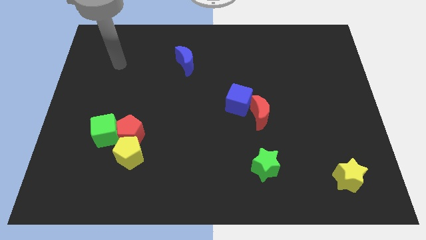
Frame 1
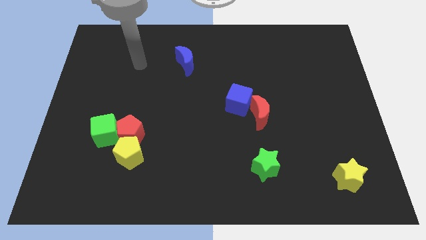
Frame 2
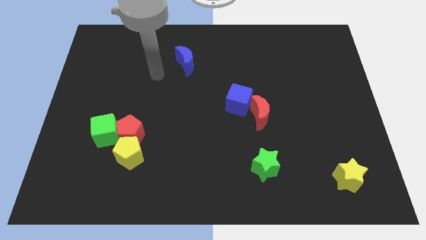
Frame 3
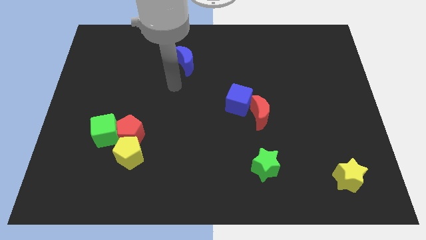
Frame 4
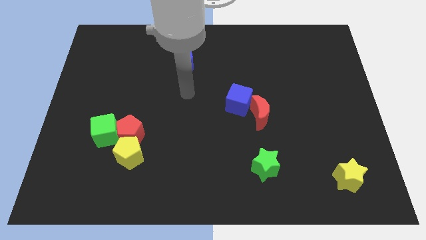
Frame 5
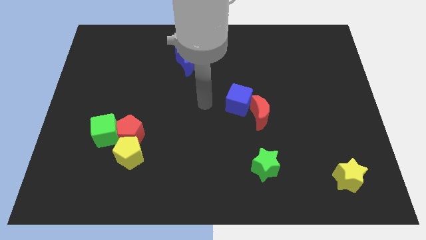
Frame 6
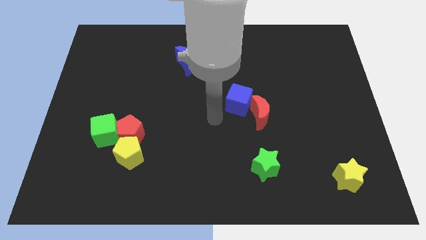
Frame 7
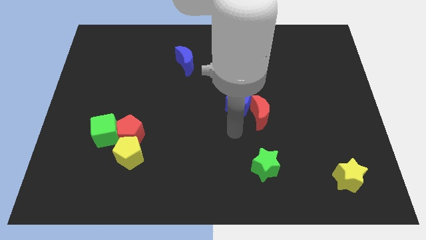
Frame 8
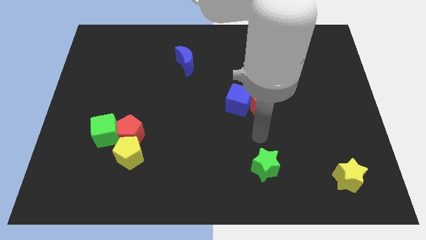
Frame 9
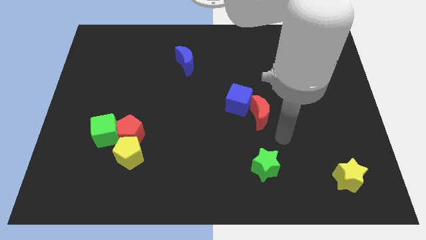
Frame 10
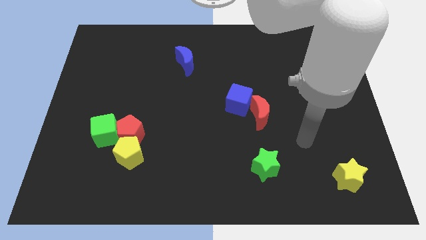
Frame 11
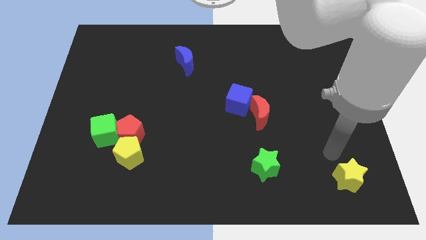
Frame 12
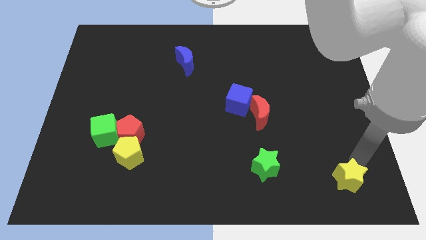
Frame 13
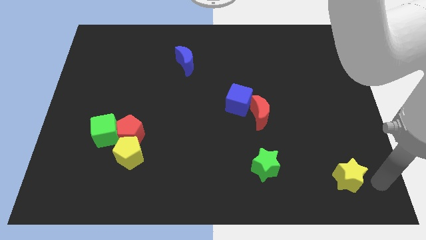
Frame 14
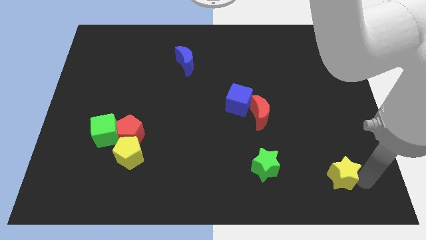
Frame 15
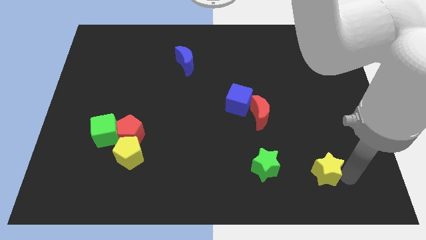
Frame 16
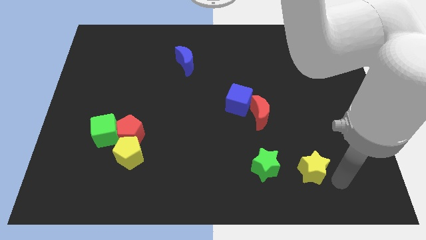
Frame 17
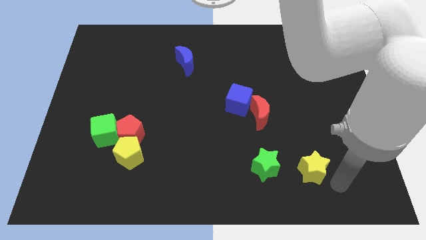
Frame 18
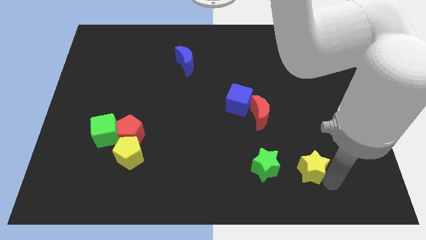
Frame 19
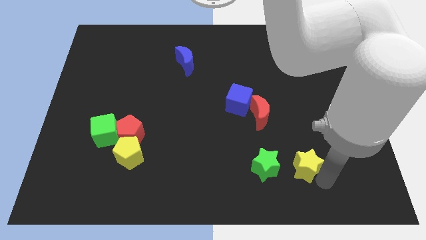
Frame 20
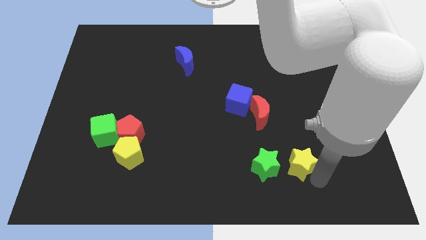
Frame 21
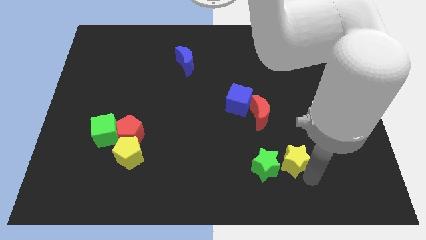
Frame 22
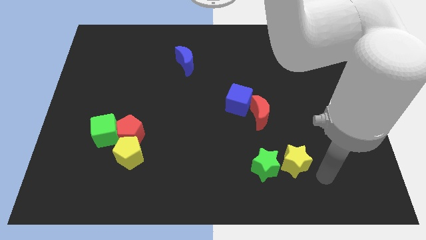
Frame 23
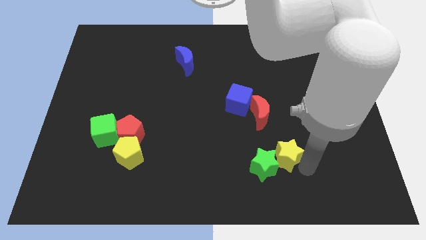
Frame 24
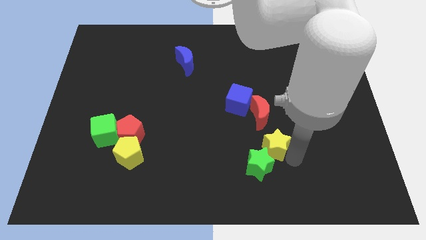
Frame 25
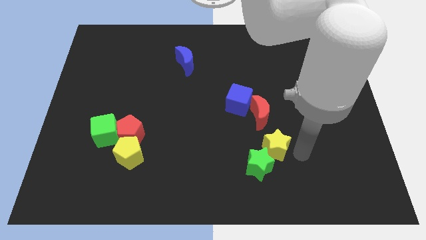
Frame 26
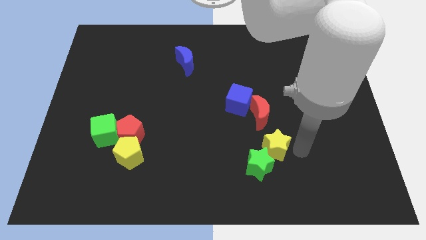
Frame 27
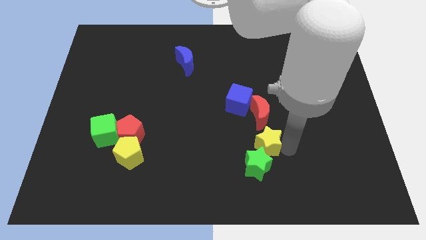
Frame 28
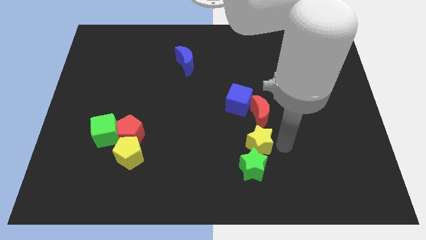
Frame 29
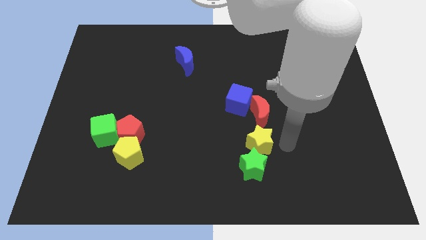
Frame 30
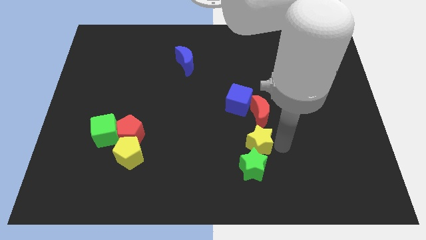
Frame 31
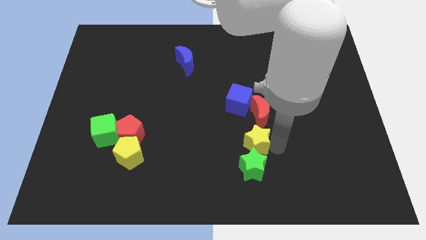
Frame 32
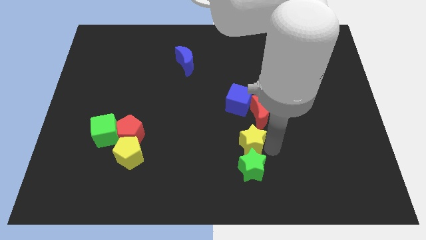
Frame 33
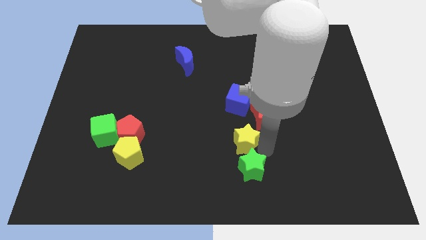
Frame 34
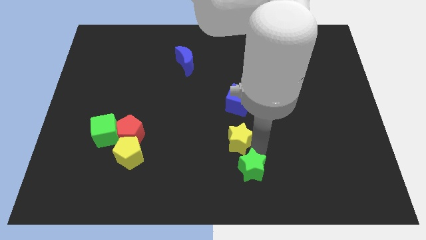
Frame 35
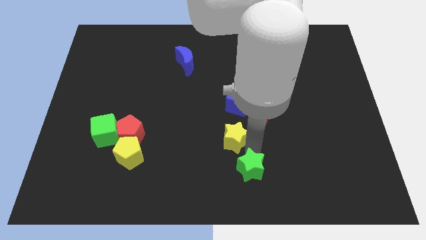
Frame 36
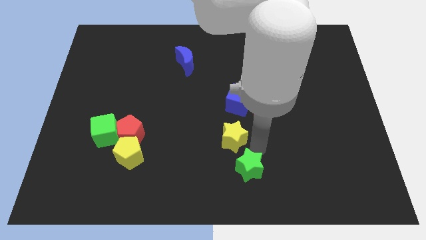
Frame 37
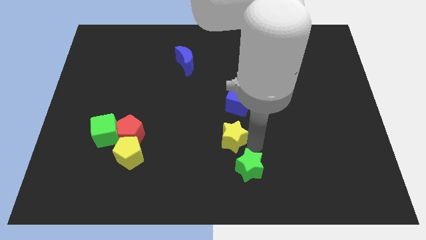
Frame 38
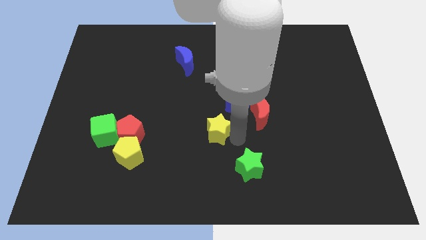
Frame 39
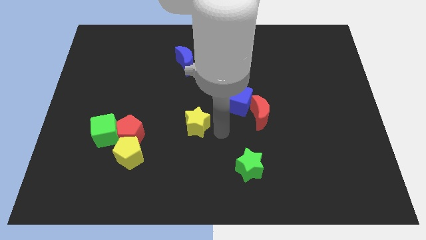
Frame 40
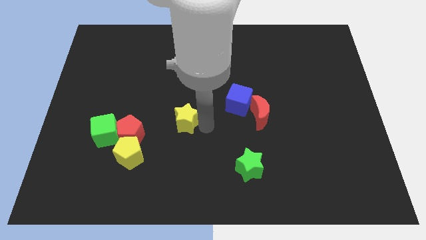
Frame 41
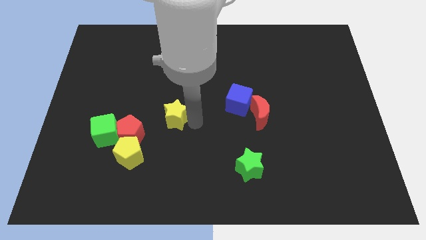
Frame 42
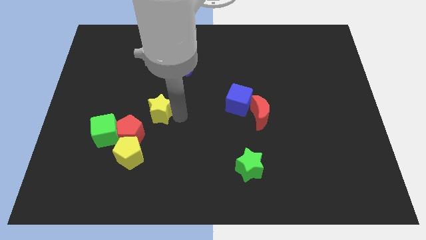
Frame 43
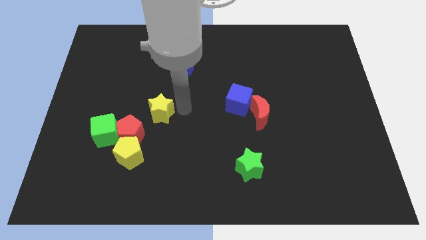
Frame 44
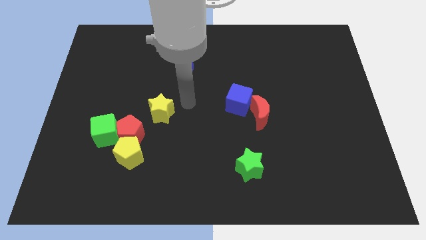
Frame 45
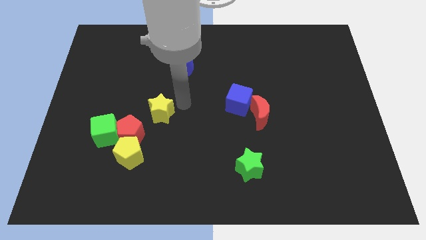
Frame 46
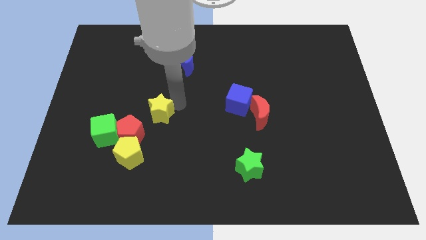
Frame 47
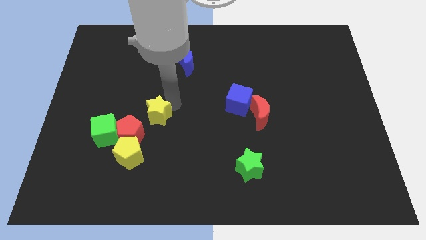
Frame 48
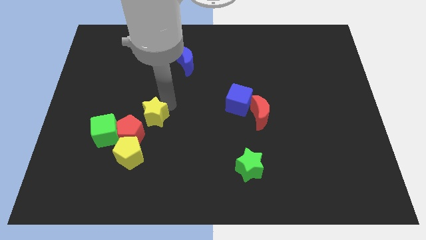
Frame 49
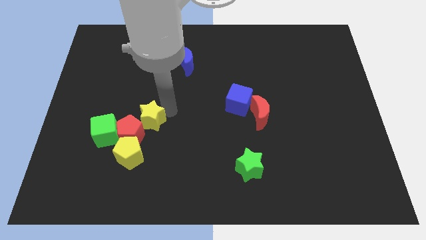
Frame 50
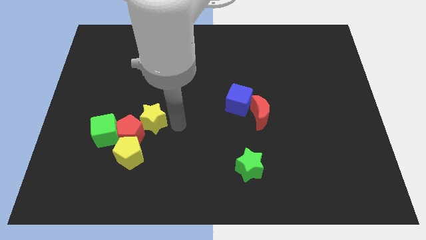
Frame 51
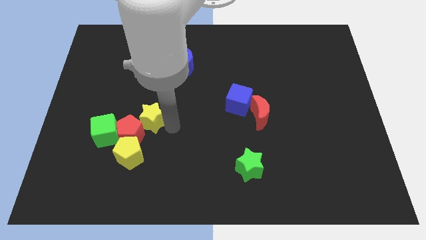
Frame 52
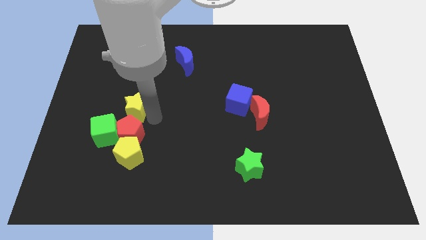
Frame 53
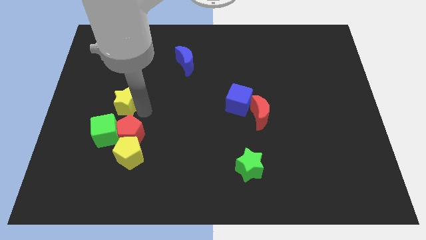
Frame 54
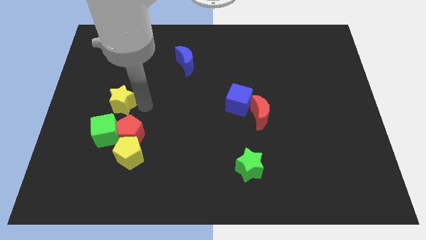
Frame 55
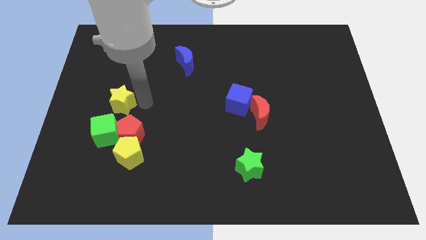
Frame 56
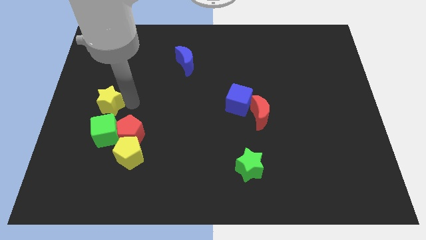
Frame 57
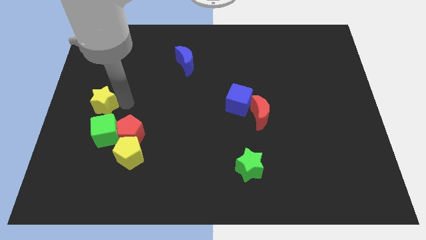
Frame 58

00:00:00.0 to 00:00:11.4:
push the yellow star to the left side of the board

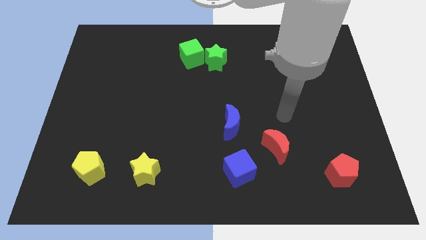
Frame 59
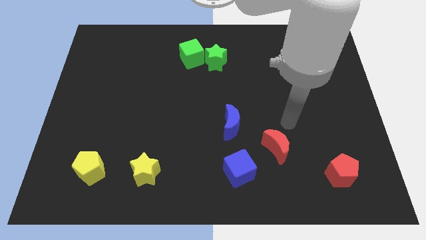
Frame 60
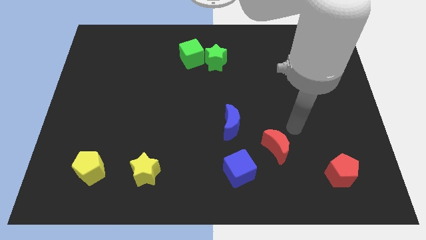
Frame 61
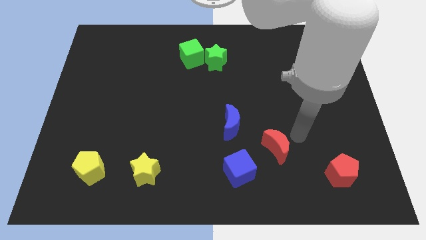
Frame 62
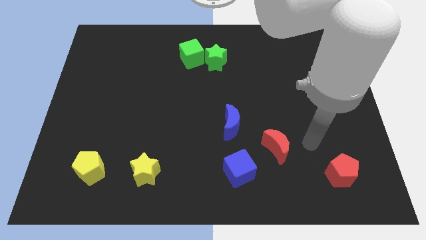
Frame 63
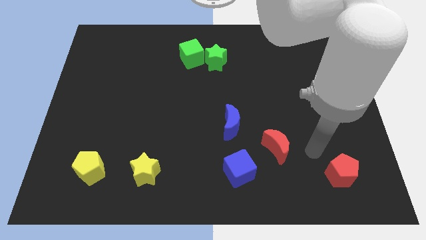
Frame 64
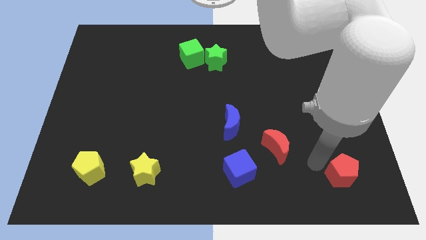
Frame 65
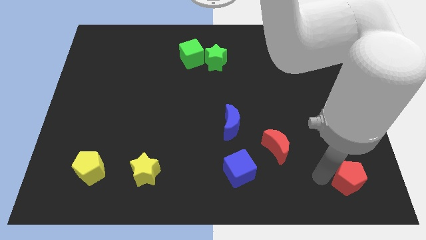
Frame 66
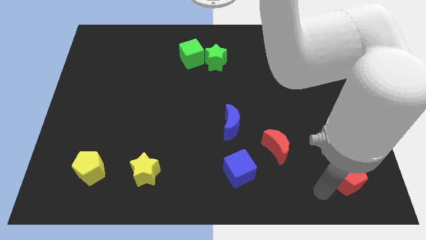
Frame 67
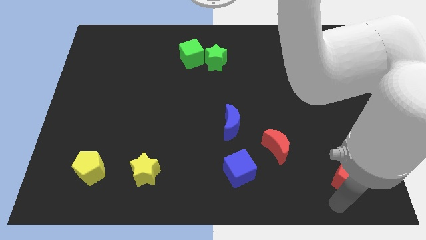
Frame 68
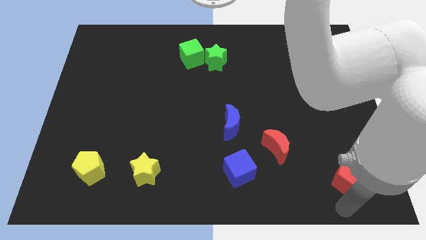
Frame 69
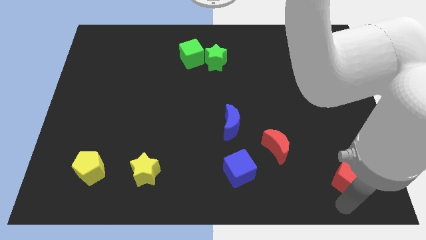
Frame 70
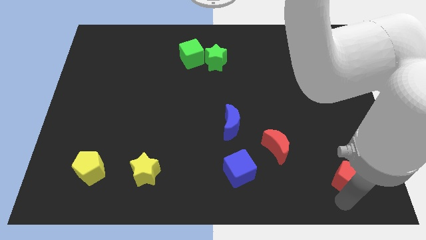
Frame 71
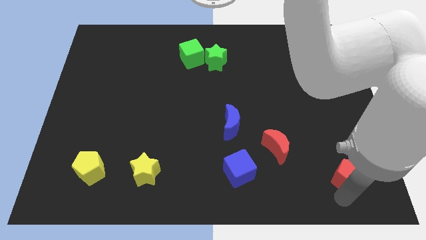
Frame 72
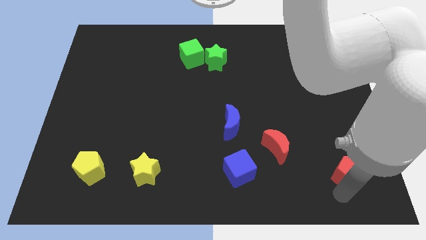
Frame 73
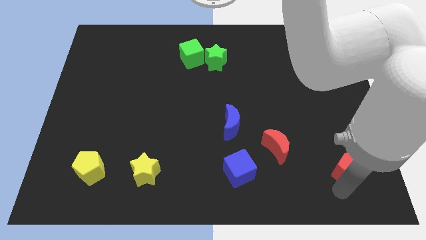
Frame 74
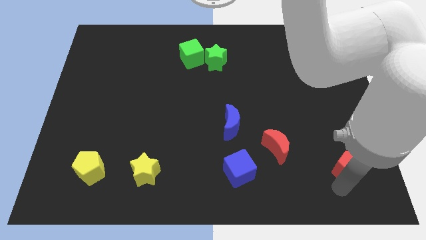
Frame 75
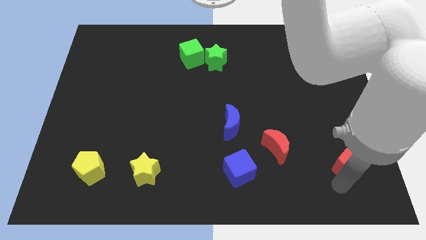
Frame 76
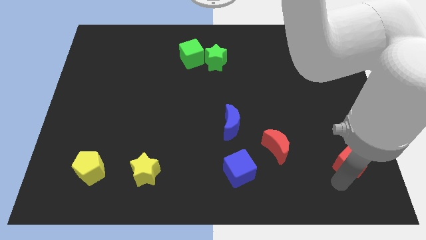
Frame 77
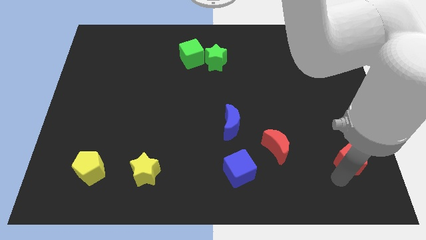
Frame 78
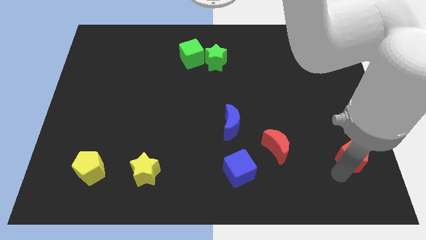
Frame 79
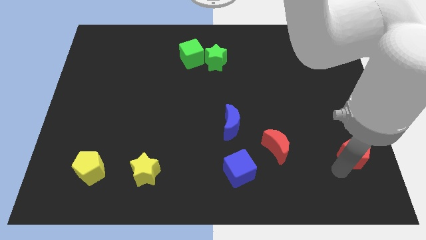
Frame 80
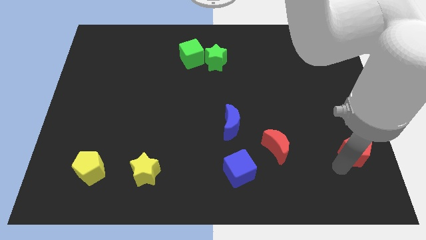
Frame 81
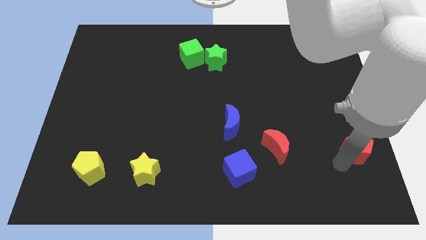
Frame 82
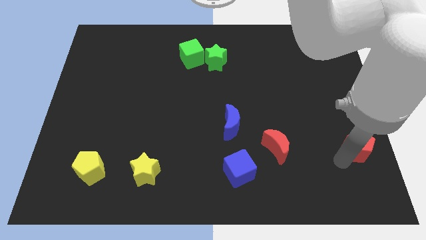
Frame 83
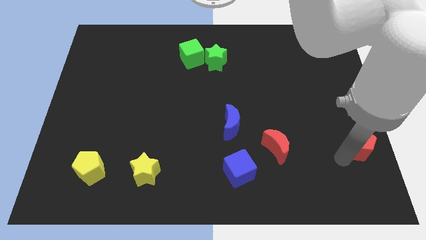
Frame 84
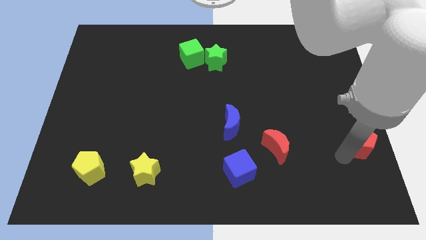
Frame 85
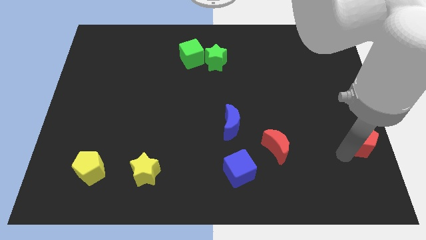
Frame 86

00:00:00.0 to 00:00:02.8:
put the red pentagon to the right side
